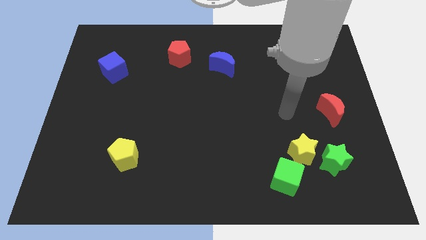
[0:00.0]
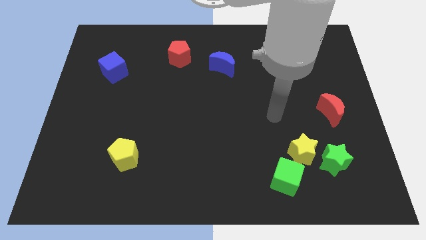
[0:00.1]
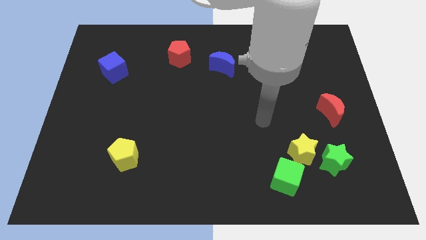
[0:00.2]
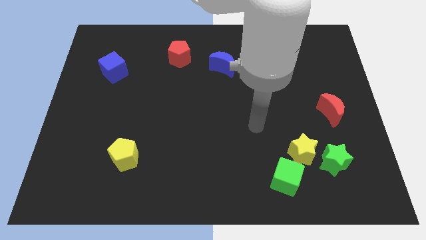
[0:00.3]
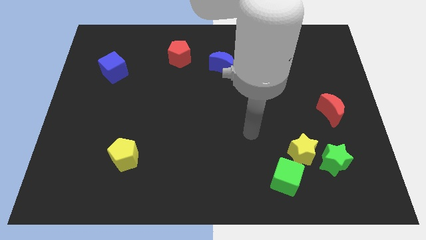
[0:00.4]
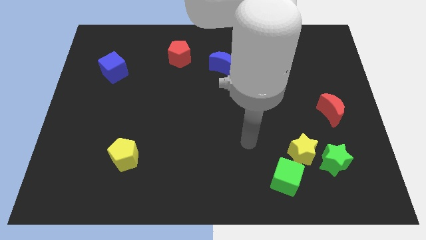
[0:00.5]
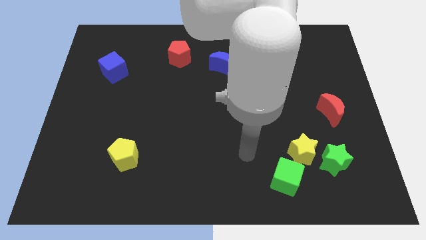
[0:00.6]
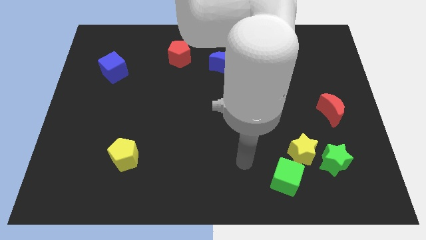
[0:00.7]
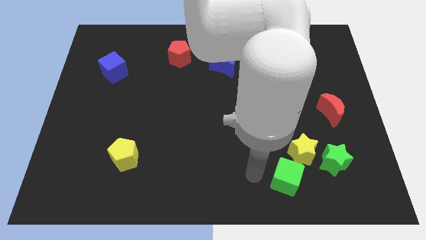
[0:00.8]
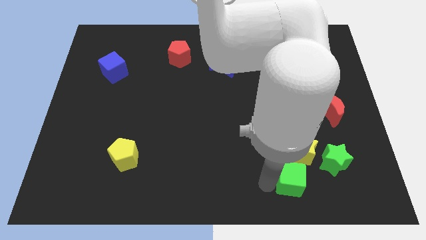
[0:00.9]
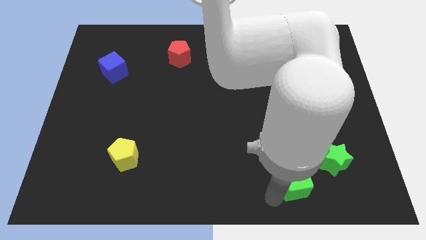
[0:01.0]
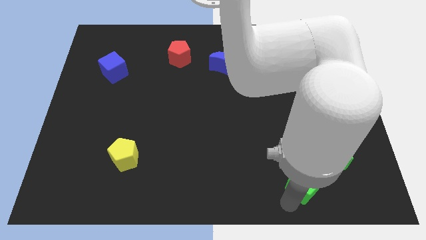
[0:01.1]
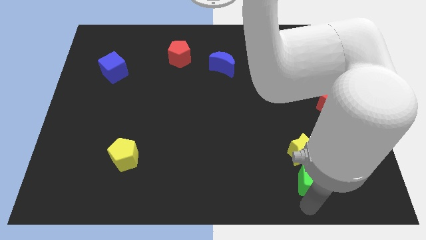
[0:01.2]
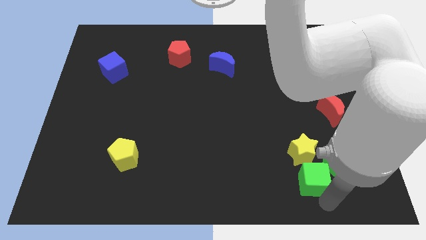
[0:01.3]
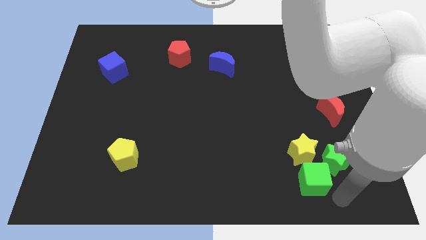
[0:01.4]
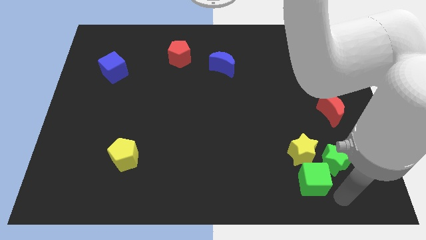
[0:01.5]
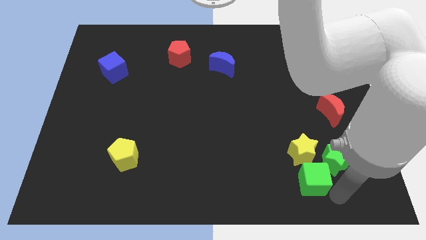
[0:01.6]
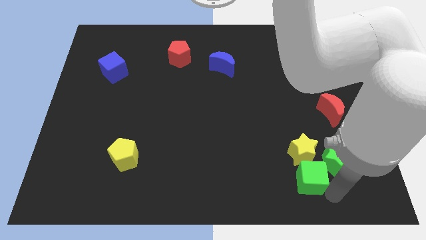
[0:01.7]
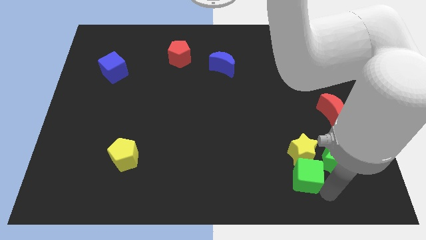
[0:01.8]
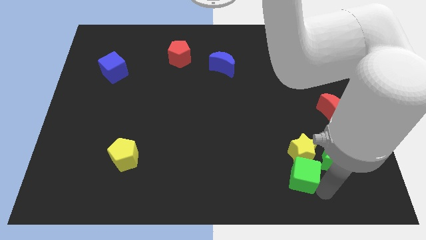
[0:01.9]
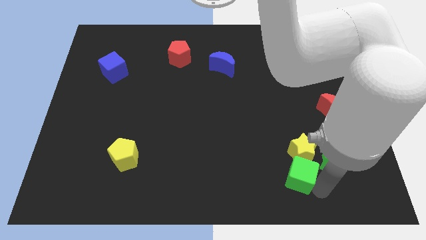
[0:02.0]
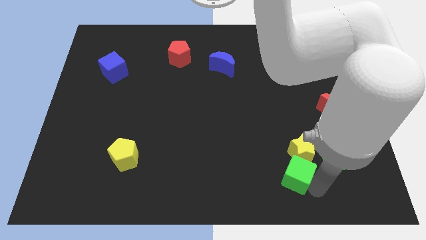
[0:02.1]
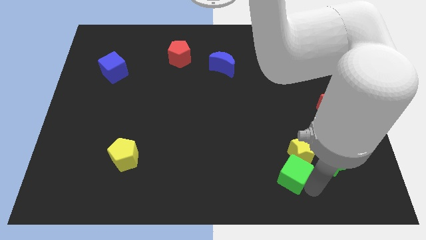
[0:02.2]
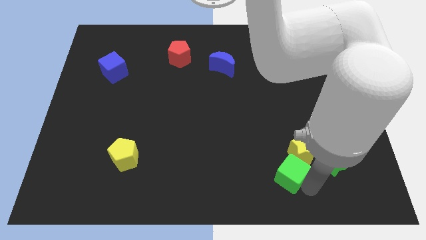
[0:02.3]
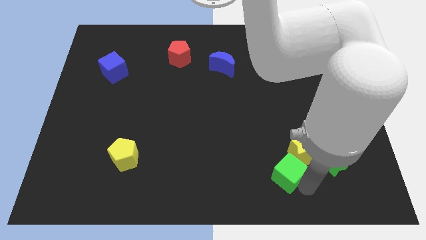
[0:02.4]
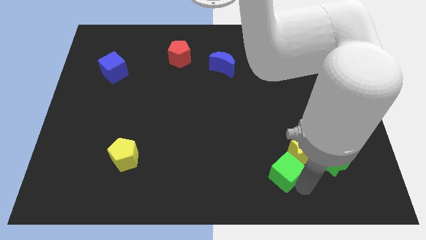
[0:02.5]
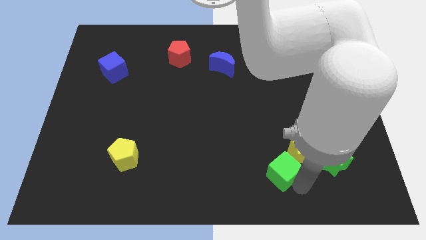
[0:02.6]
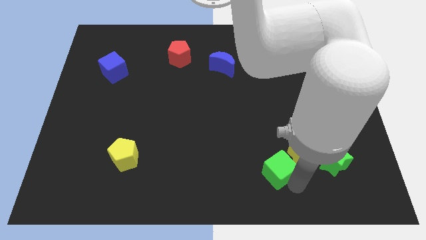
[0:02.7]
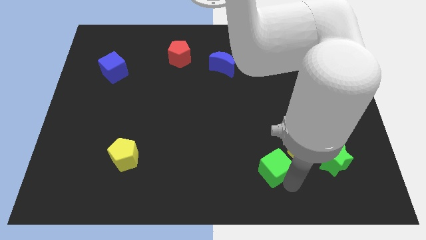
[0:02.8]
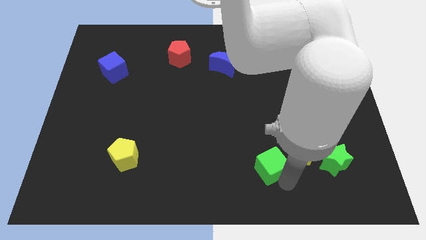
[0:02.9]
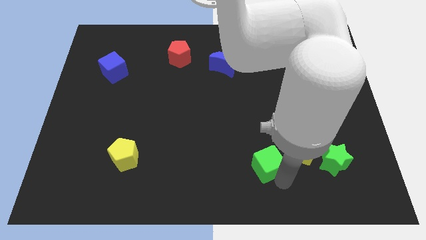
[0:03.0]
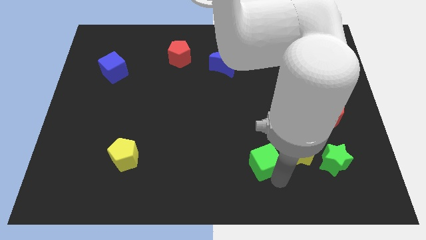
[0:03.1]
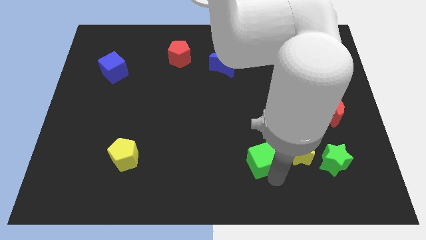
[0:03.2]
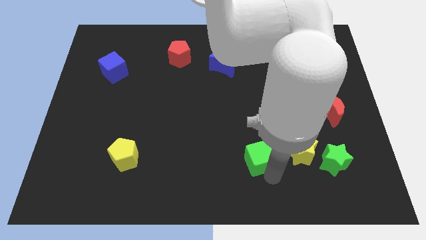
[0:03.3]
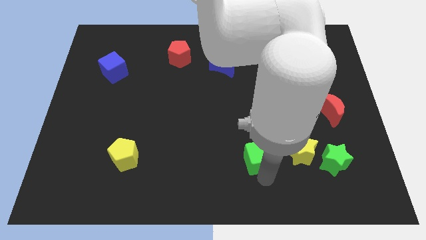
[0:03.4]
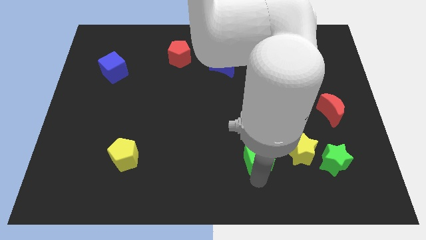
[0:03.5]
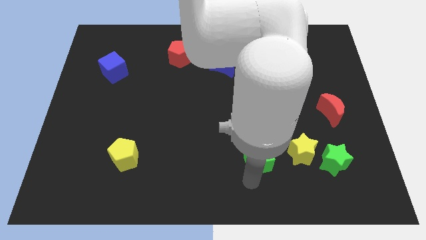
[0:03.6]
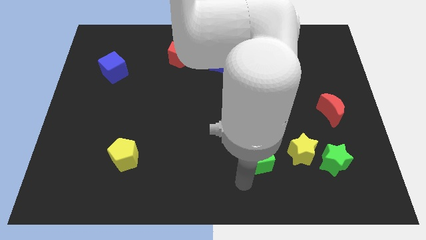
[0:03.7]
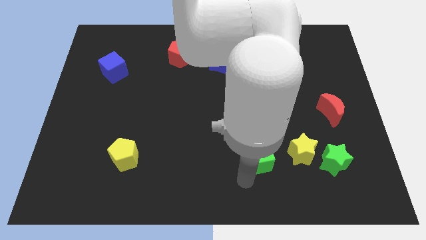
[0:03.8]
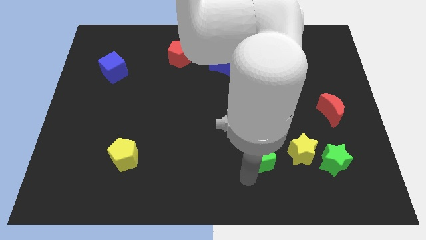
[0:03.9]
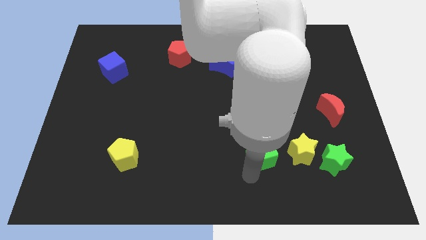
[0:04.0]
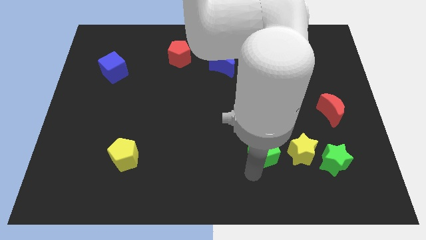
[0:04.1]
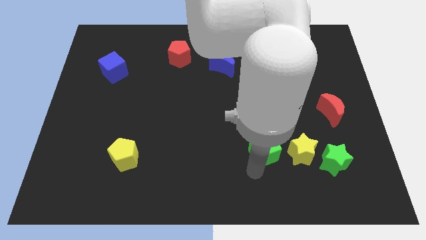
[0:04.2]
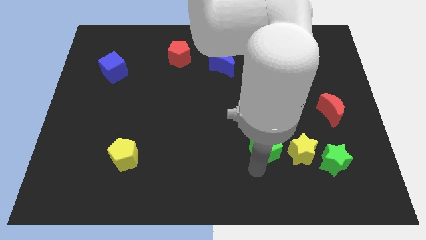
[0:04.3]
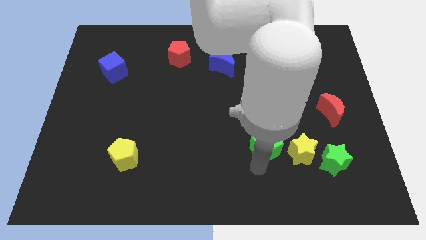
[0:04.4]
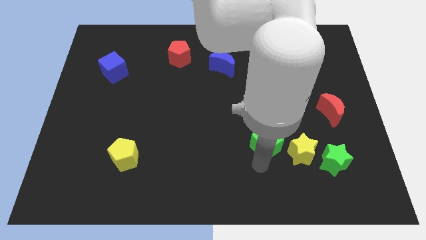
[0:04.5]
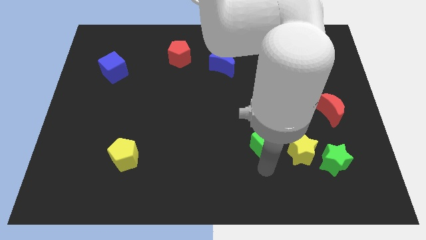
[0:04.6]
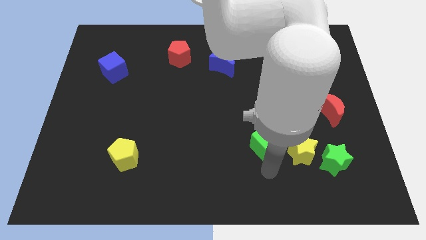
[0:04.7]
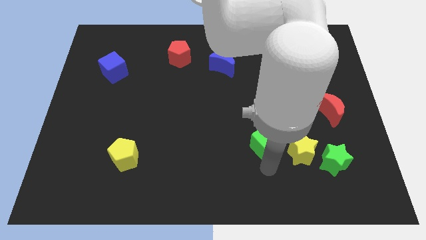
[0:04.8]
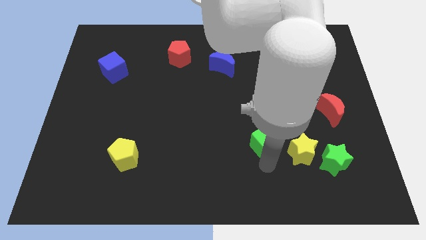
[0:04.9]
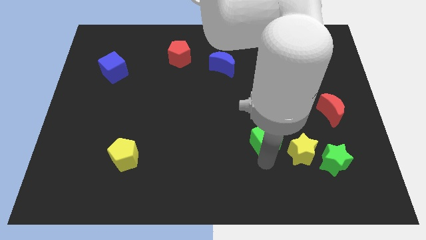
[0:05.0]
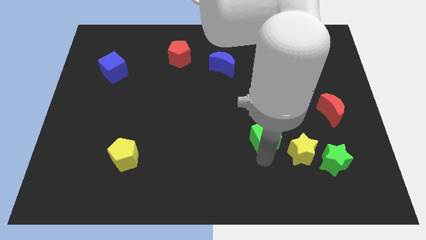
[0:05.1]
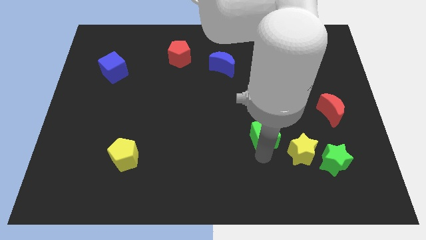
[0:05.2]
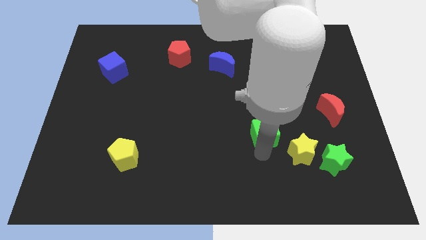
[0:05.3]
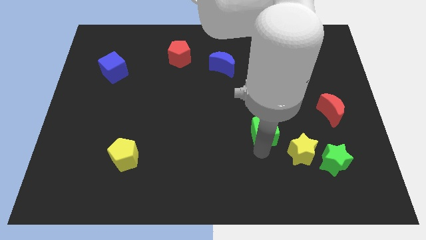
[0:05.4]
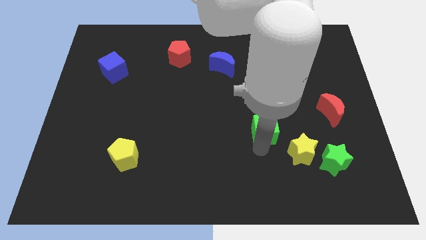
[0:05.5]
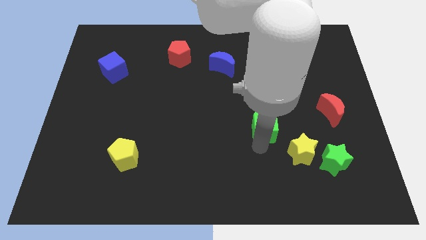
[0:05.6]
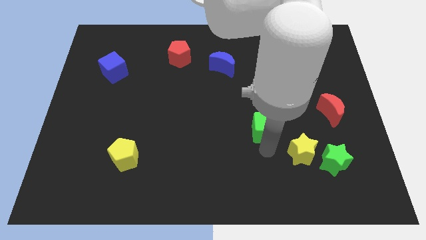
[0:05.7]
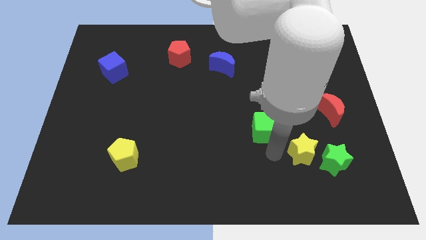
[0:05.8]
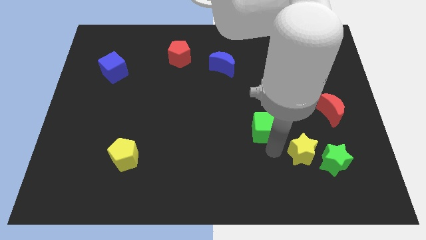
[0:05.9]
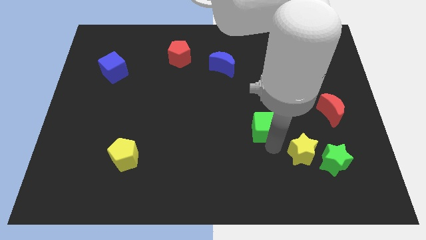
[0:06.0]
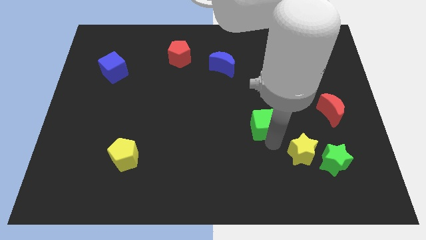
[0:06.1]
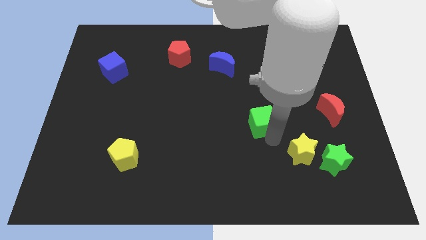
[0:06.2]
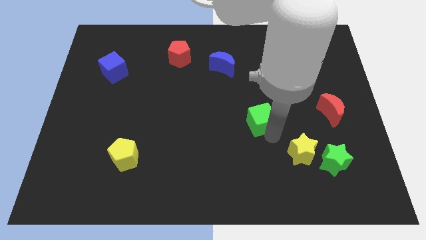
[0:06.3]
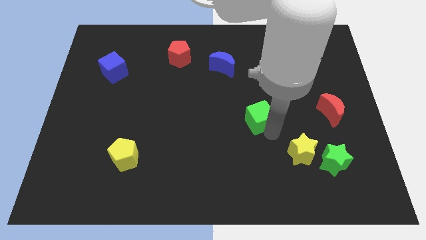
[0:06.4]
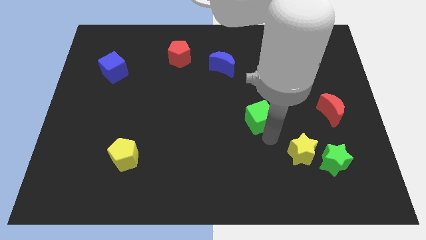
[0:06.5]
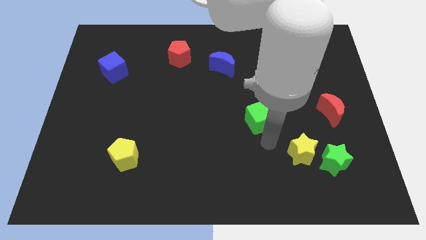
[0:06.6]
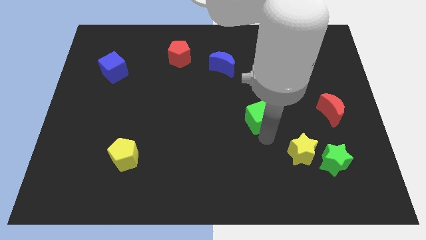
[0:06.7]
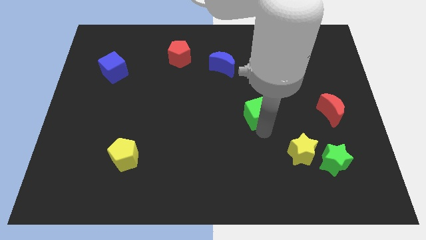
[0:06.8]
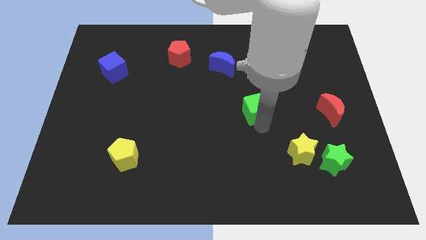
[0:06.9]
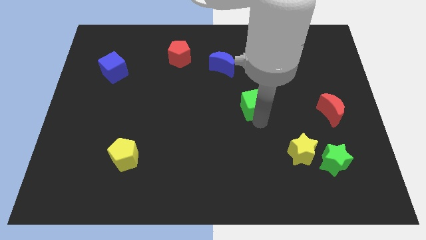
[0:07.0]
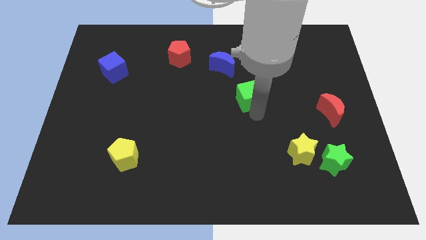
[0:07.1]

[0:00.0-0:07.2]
push the green cube to the bottom right side of the blue moon

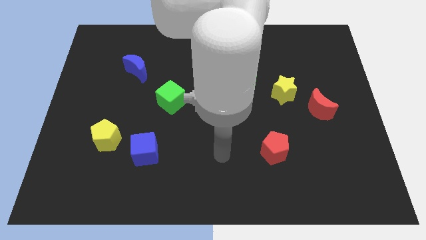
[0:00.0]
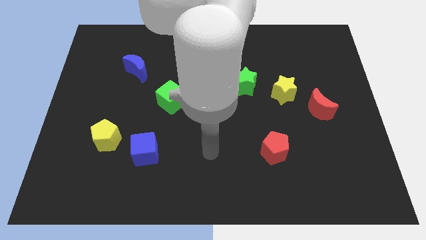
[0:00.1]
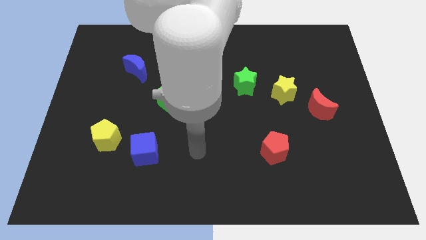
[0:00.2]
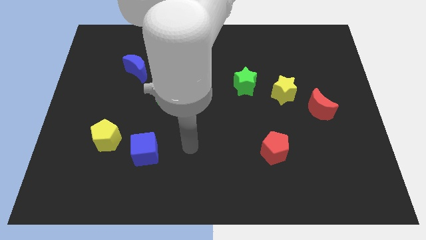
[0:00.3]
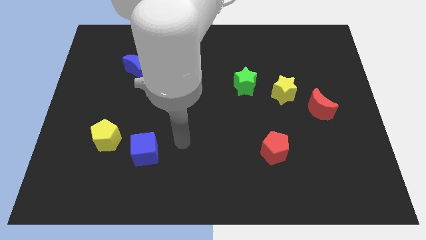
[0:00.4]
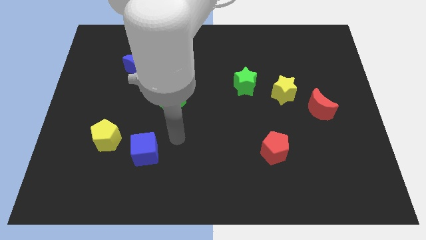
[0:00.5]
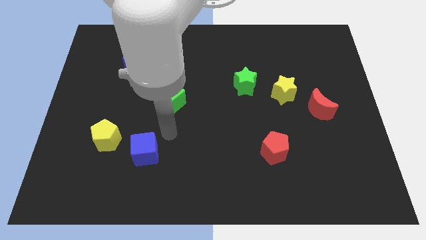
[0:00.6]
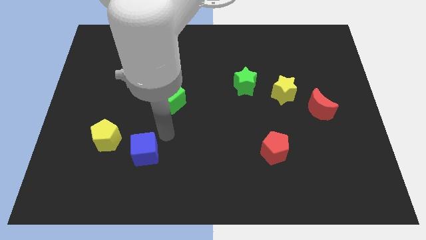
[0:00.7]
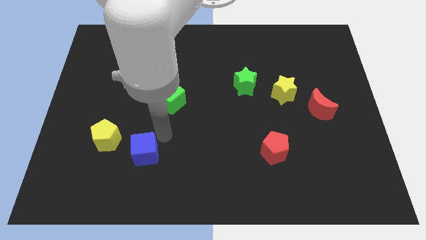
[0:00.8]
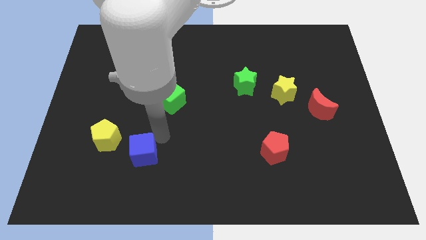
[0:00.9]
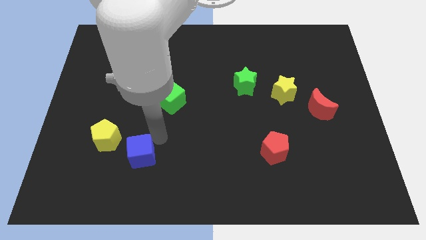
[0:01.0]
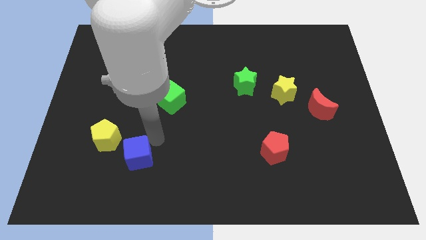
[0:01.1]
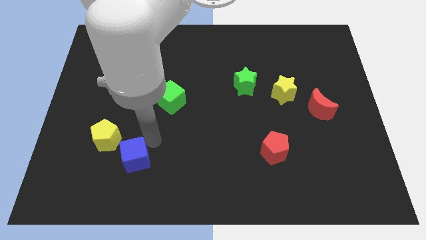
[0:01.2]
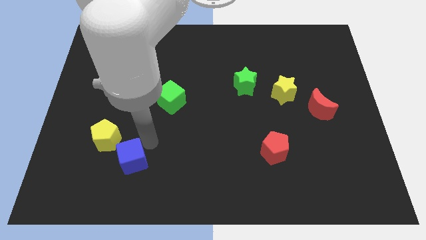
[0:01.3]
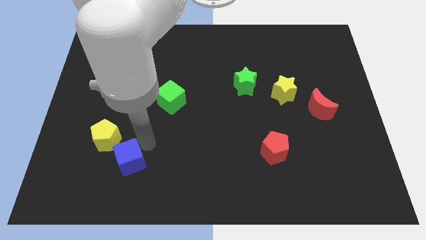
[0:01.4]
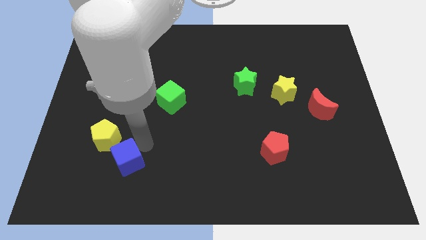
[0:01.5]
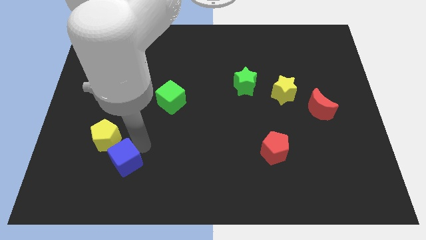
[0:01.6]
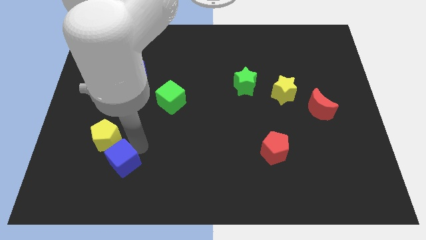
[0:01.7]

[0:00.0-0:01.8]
put the blue cube to the bottom of the yellow pentagon
